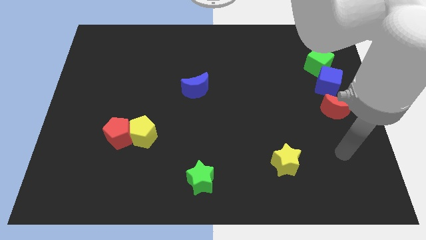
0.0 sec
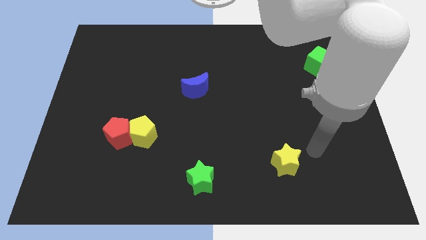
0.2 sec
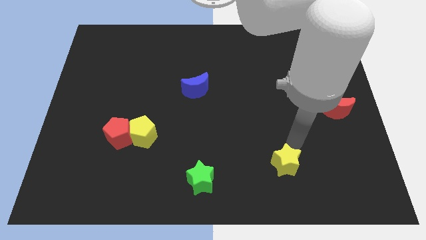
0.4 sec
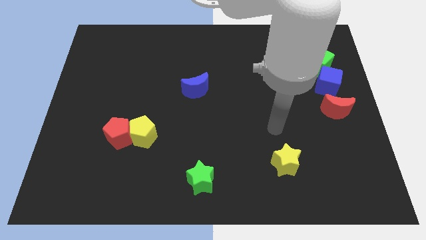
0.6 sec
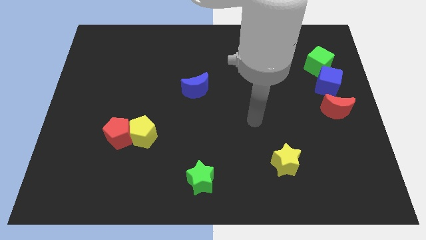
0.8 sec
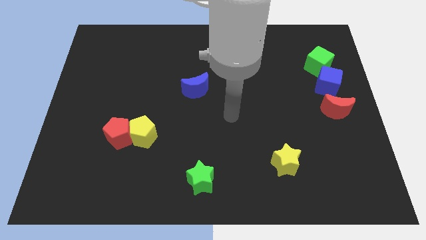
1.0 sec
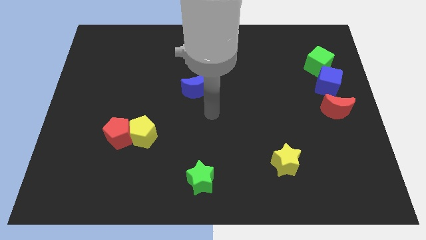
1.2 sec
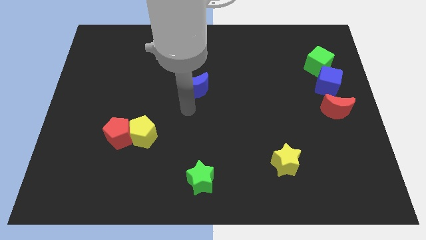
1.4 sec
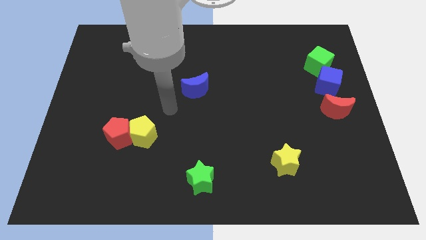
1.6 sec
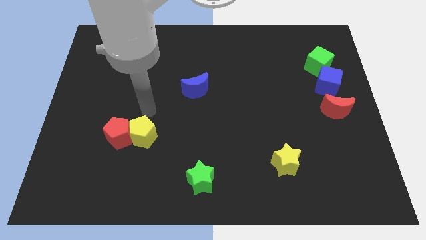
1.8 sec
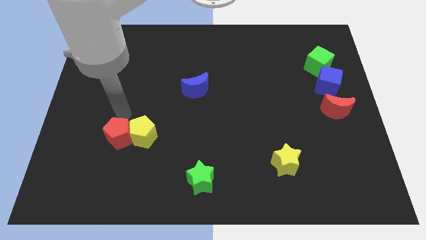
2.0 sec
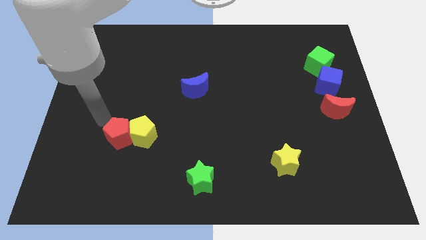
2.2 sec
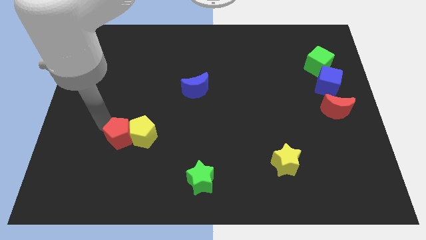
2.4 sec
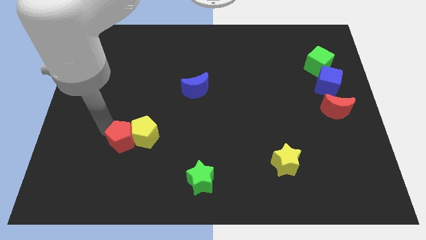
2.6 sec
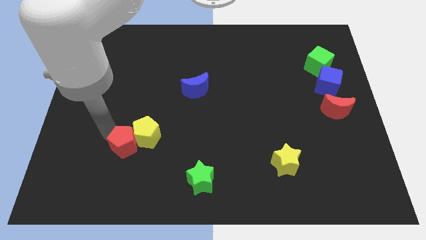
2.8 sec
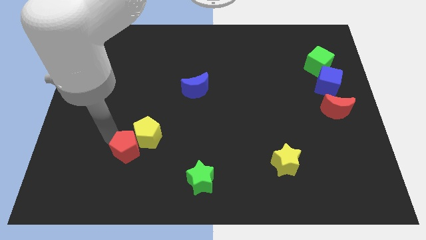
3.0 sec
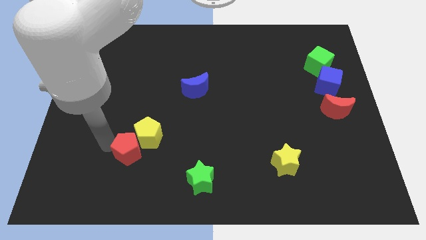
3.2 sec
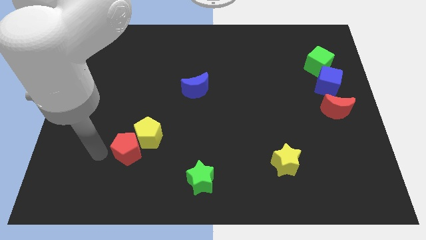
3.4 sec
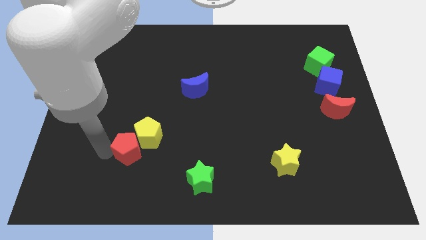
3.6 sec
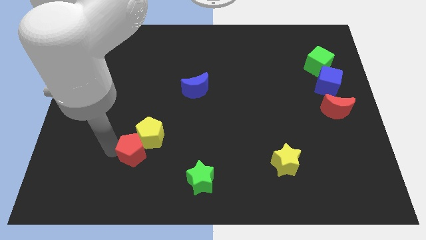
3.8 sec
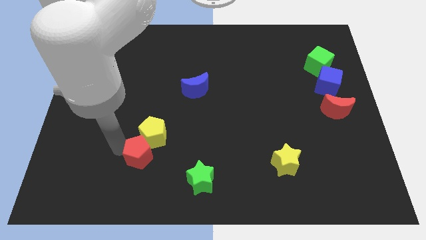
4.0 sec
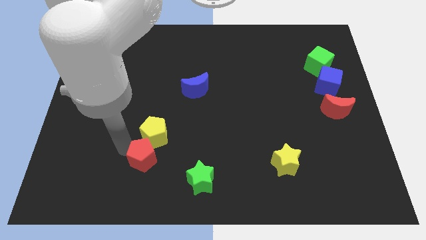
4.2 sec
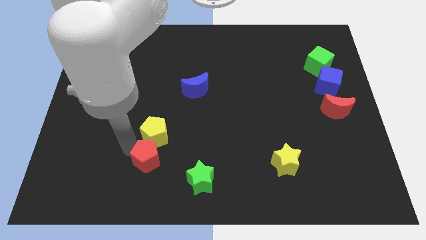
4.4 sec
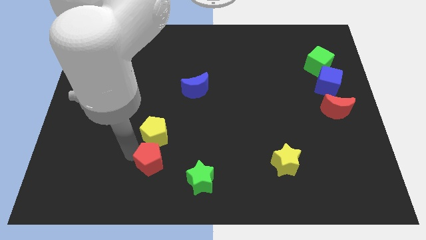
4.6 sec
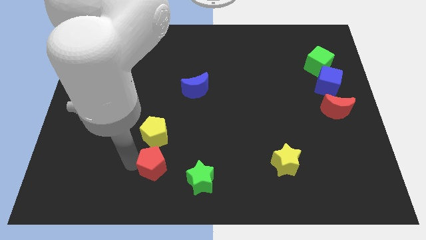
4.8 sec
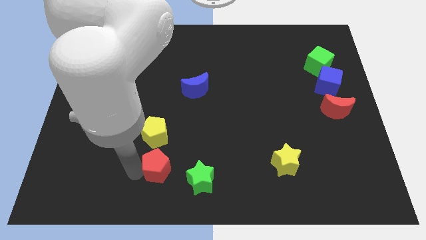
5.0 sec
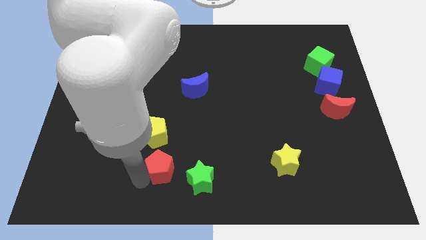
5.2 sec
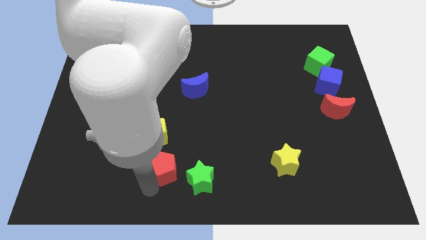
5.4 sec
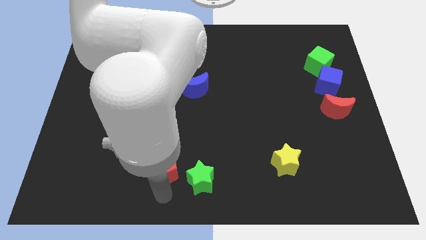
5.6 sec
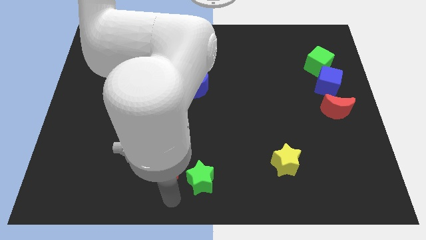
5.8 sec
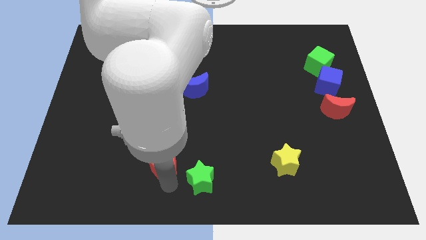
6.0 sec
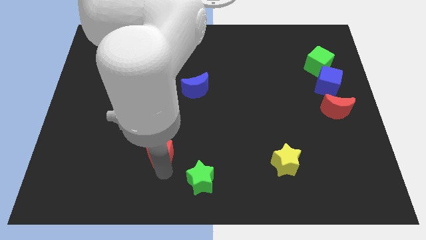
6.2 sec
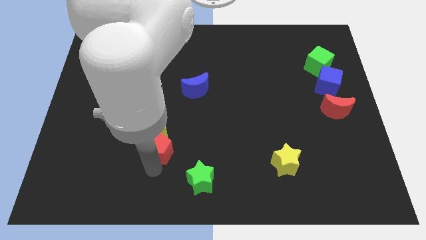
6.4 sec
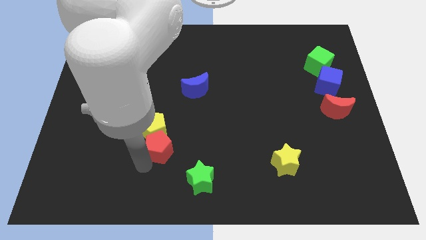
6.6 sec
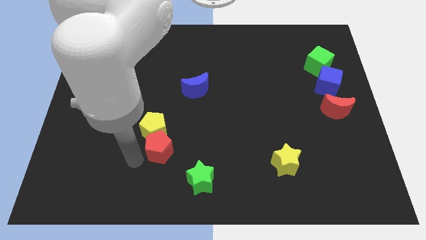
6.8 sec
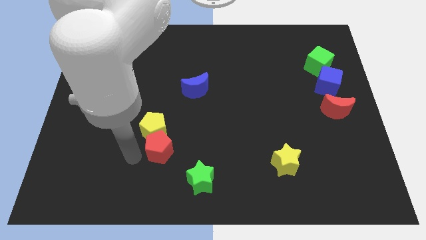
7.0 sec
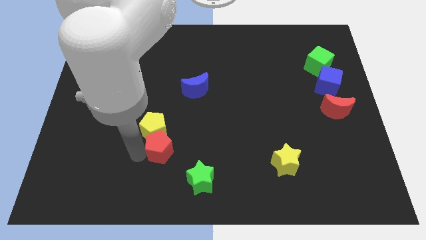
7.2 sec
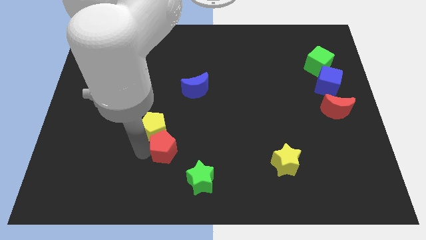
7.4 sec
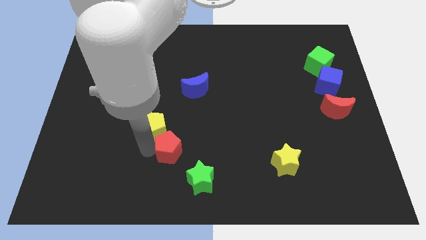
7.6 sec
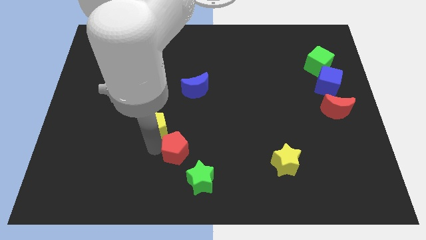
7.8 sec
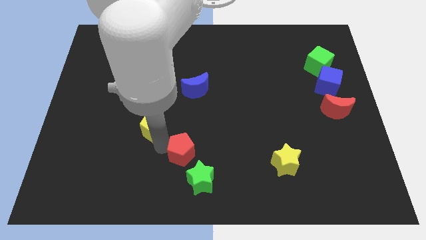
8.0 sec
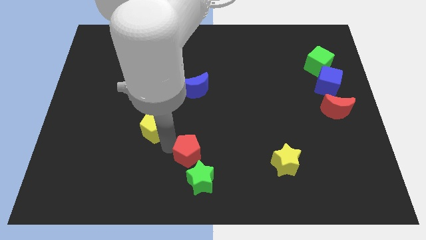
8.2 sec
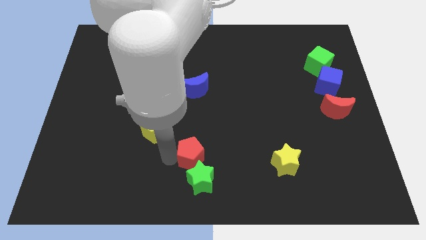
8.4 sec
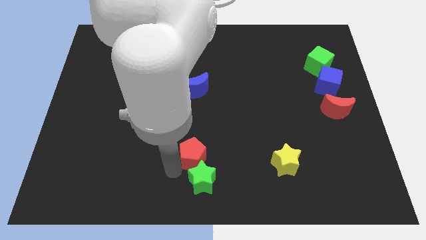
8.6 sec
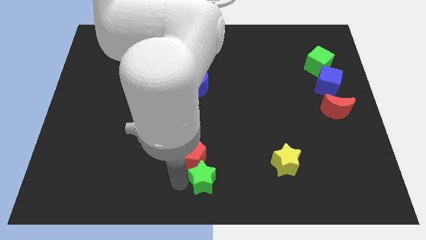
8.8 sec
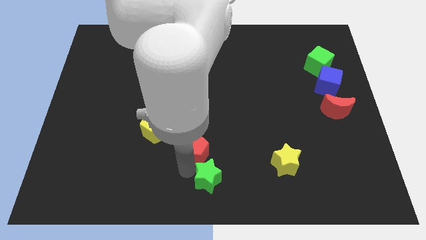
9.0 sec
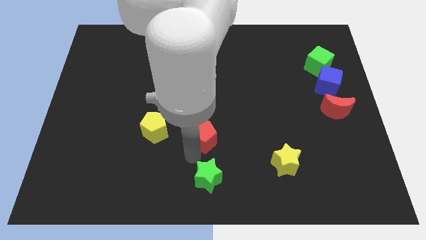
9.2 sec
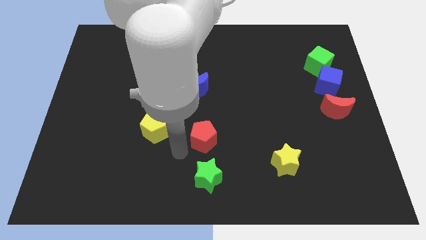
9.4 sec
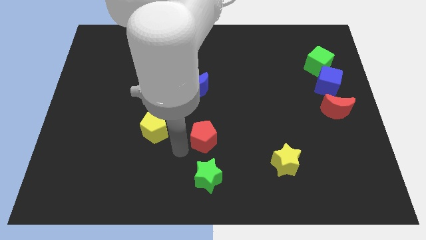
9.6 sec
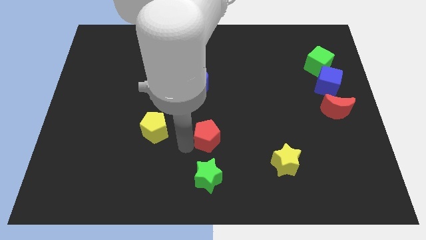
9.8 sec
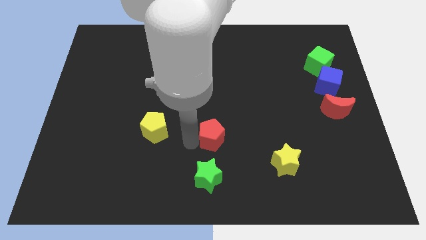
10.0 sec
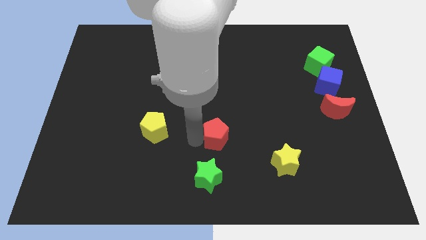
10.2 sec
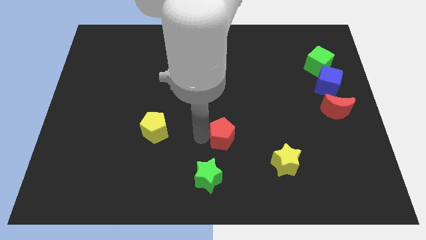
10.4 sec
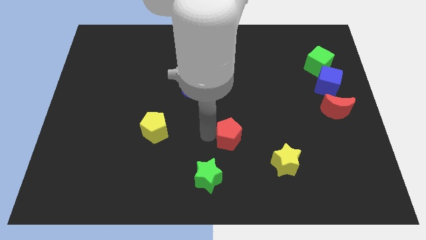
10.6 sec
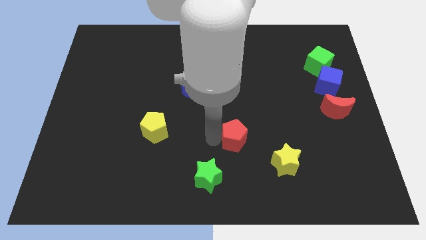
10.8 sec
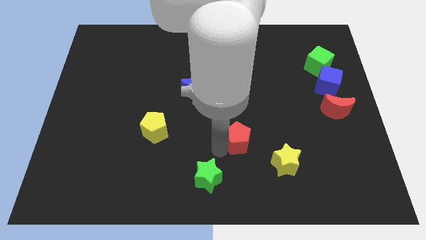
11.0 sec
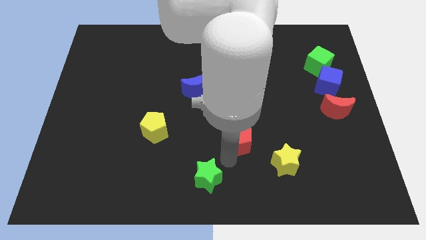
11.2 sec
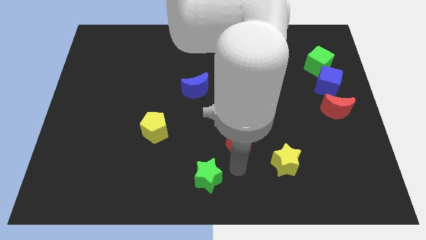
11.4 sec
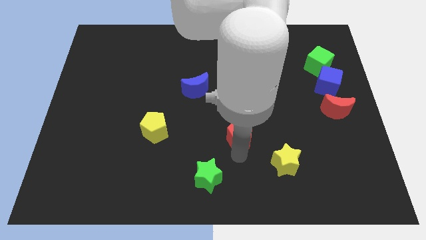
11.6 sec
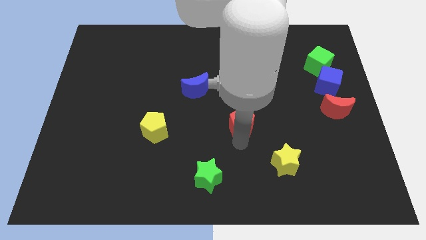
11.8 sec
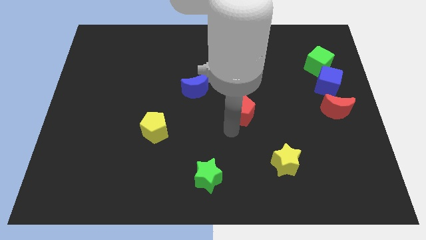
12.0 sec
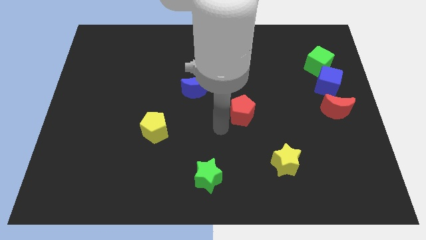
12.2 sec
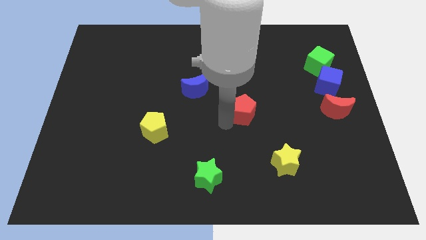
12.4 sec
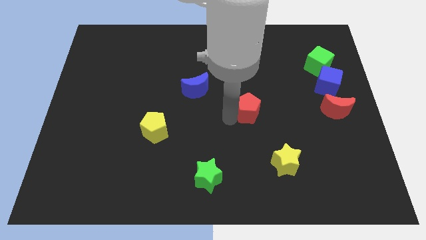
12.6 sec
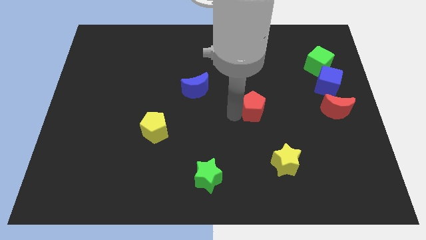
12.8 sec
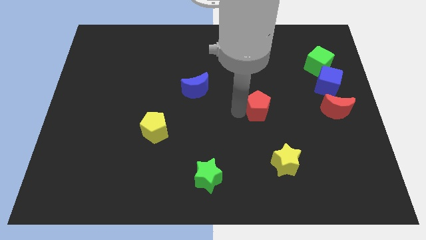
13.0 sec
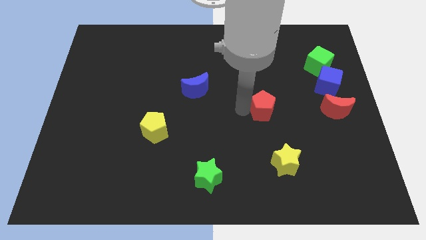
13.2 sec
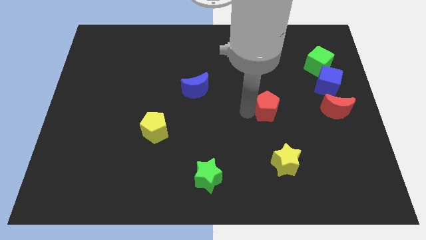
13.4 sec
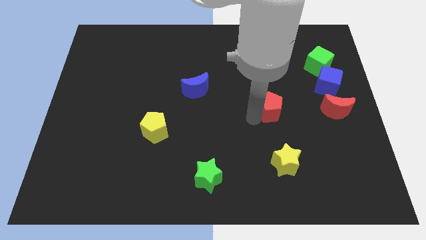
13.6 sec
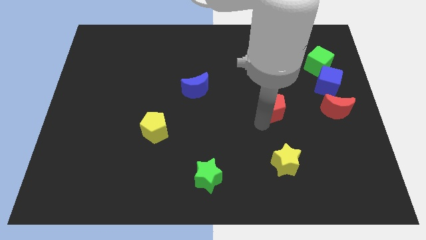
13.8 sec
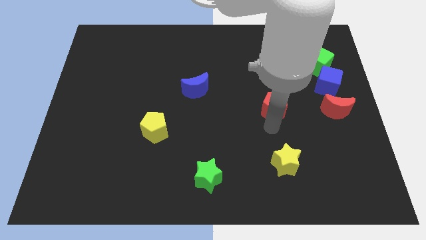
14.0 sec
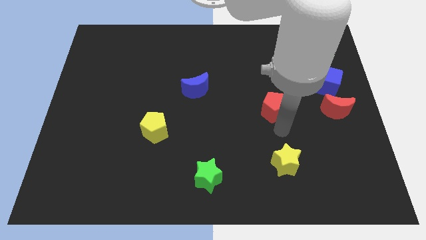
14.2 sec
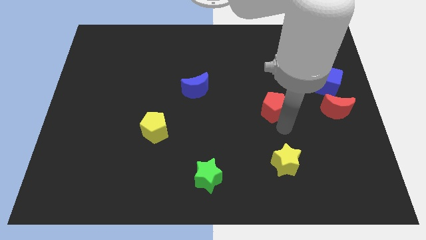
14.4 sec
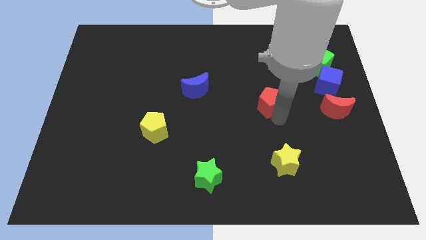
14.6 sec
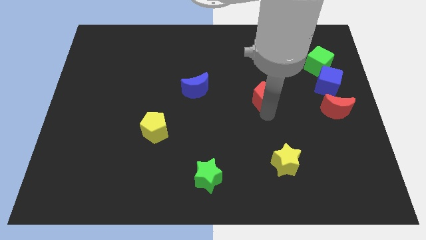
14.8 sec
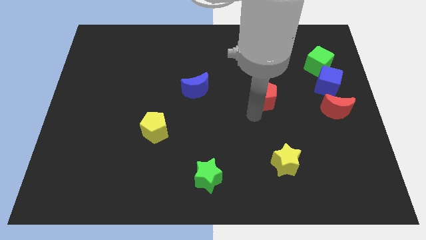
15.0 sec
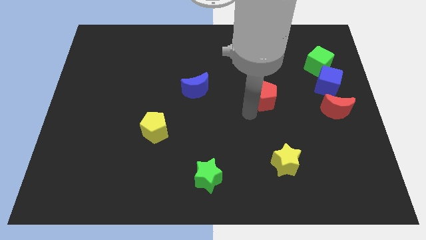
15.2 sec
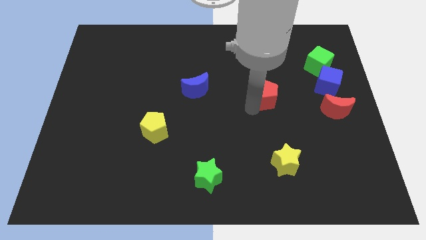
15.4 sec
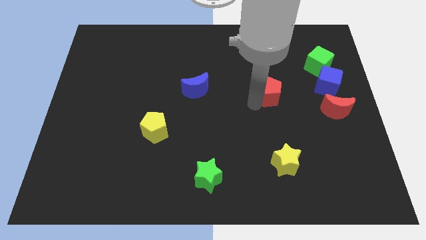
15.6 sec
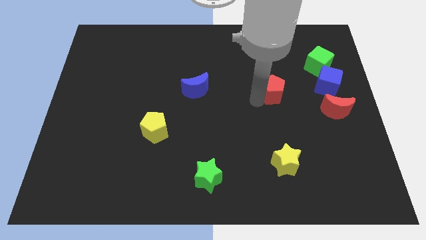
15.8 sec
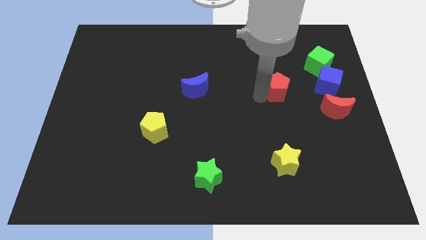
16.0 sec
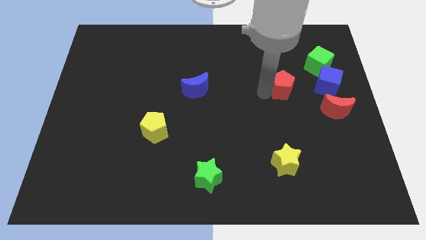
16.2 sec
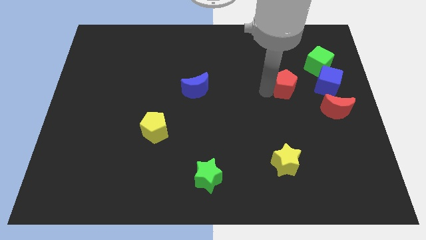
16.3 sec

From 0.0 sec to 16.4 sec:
slide the red pentagon diagonally down and to the left of the green cube
